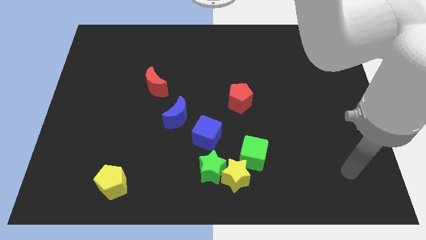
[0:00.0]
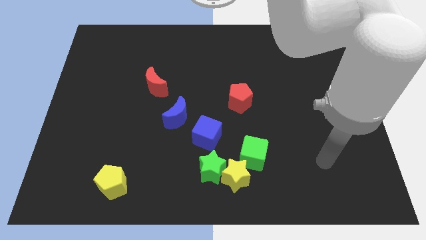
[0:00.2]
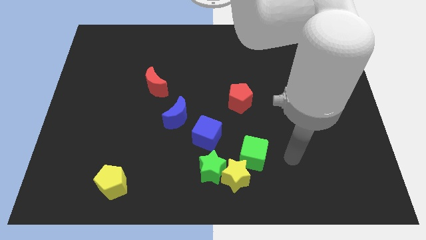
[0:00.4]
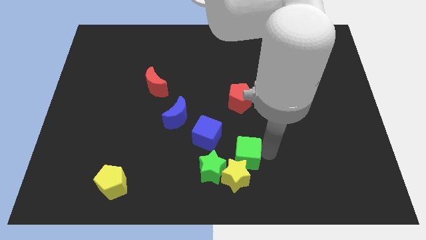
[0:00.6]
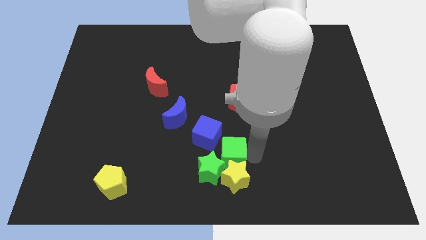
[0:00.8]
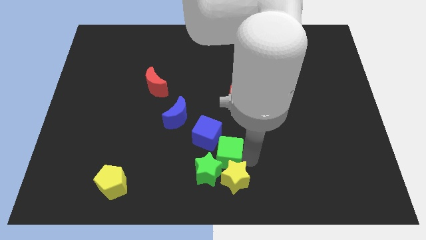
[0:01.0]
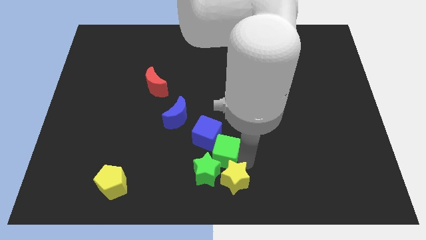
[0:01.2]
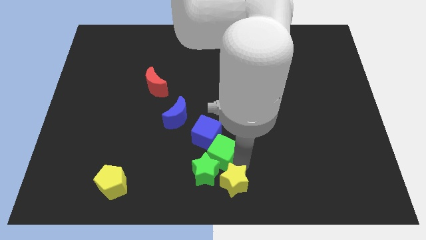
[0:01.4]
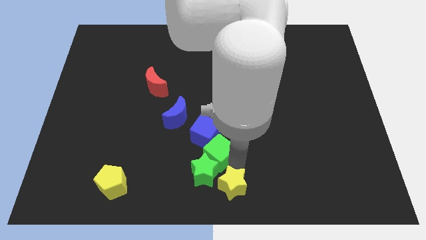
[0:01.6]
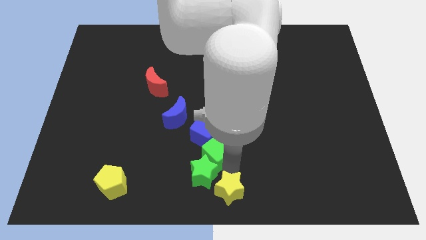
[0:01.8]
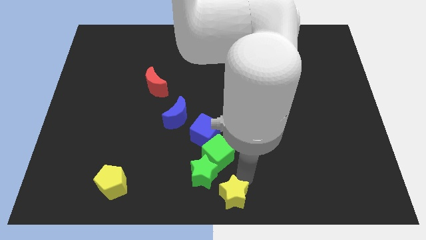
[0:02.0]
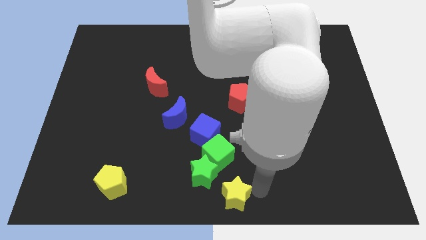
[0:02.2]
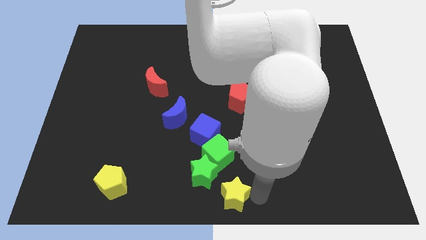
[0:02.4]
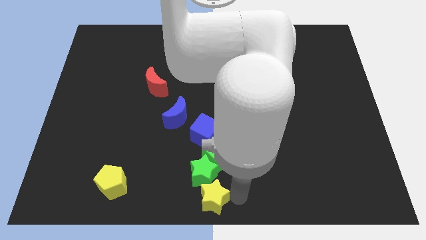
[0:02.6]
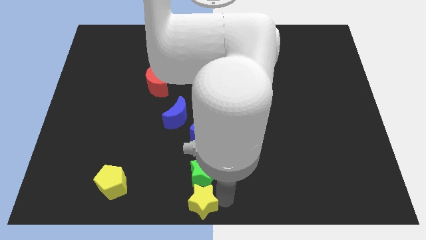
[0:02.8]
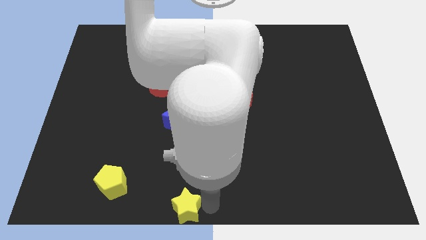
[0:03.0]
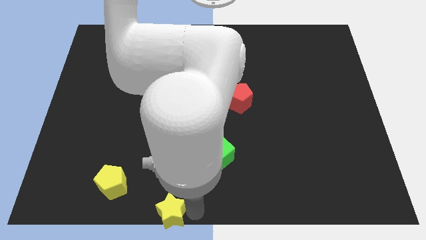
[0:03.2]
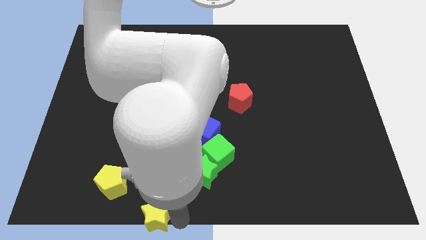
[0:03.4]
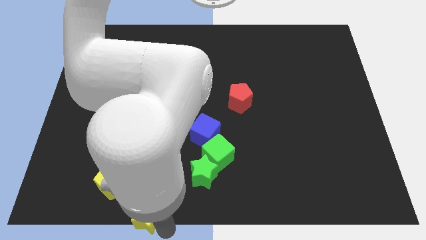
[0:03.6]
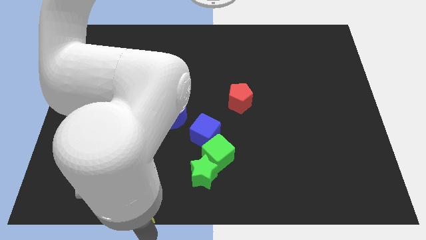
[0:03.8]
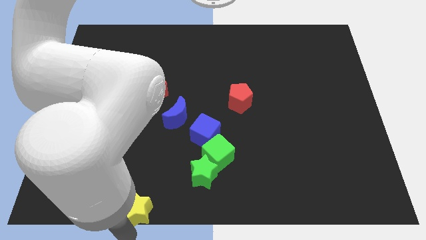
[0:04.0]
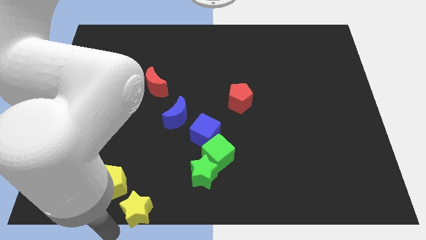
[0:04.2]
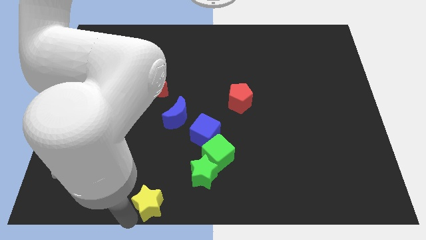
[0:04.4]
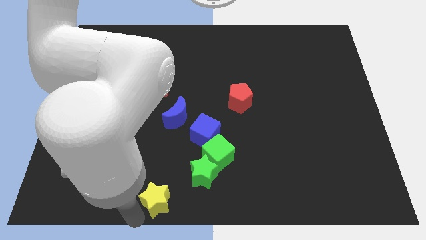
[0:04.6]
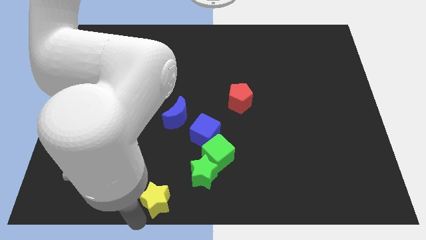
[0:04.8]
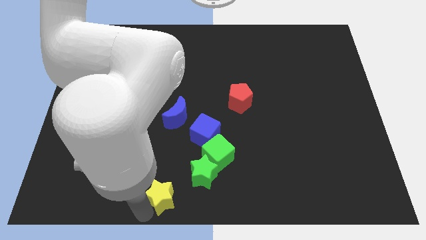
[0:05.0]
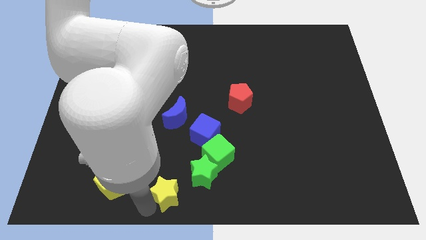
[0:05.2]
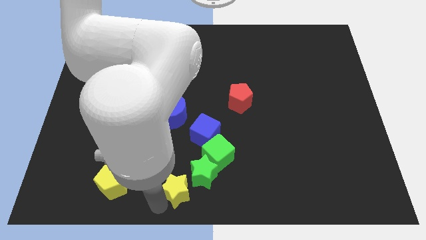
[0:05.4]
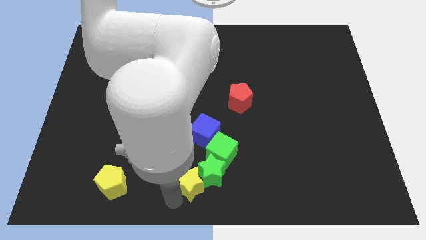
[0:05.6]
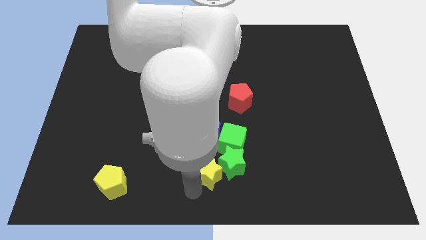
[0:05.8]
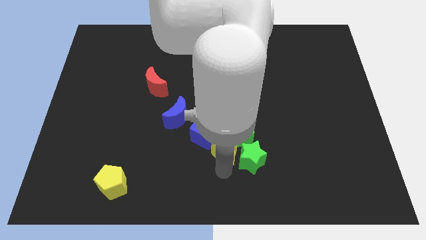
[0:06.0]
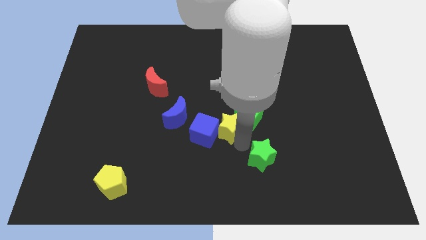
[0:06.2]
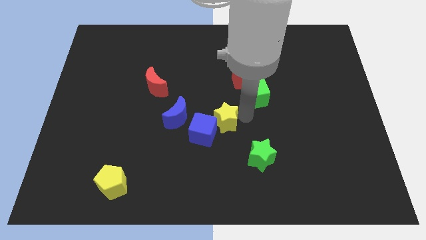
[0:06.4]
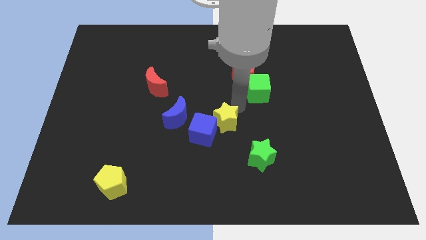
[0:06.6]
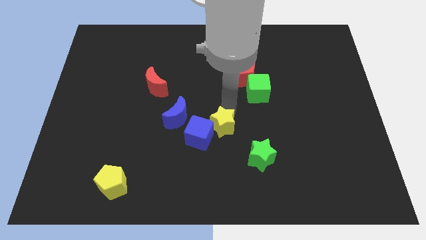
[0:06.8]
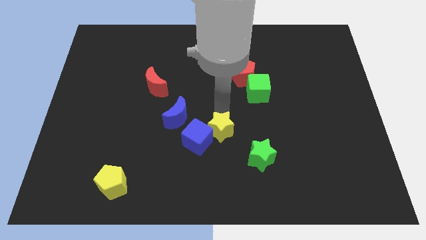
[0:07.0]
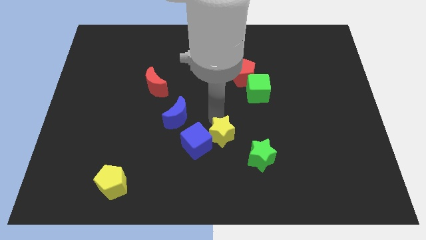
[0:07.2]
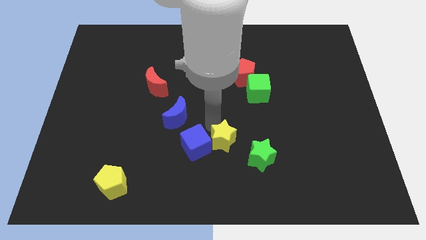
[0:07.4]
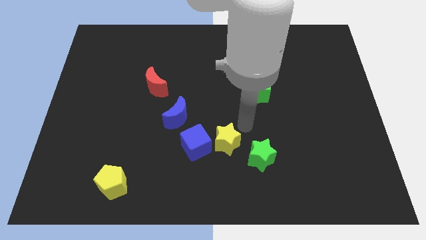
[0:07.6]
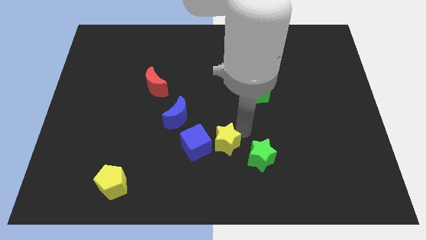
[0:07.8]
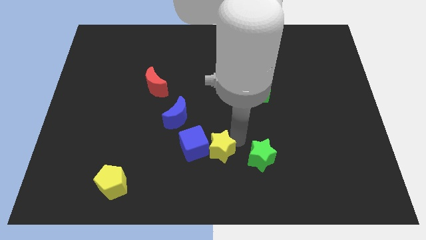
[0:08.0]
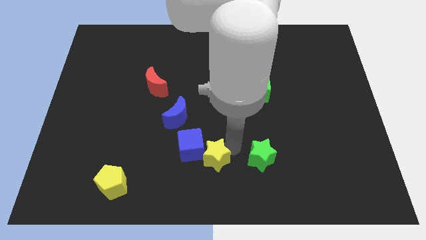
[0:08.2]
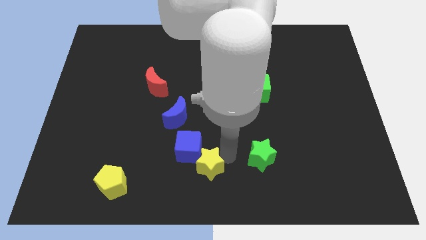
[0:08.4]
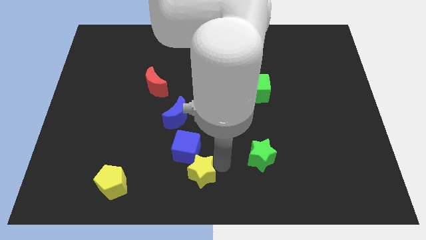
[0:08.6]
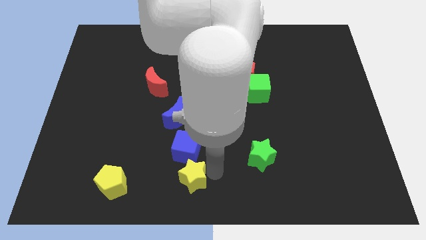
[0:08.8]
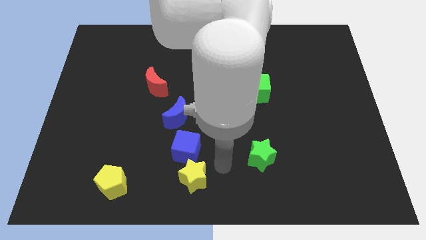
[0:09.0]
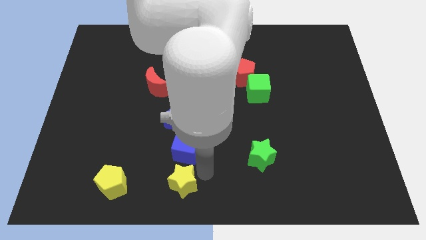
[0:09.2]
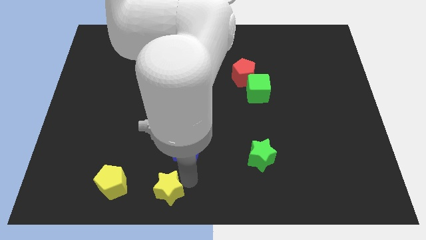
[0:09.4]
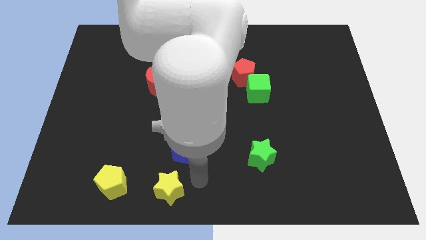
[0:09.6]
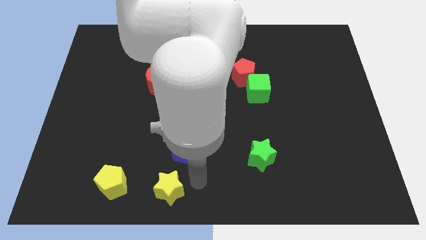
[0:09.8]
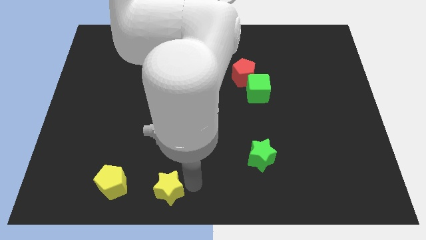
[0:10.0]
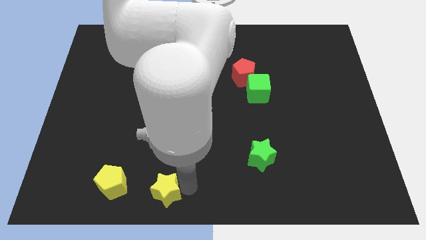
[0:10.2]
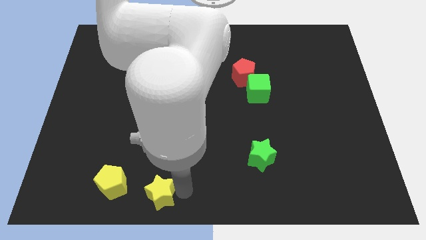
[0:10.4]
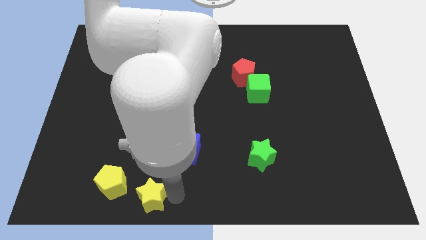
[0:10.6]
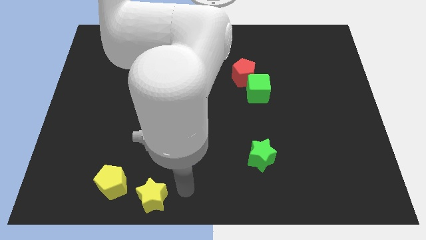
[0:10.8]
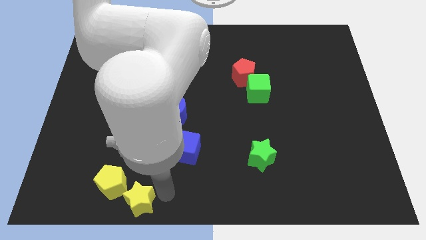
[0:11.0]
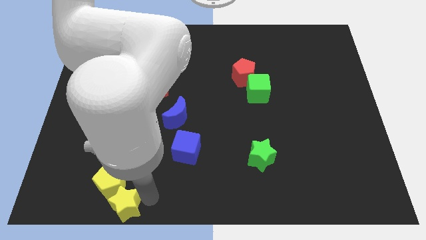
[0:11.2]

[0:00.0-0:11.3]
slide the yellow star left

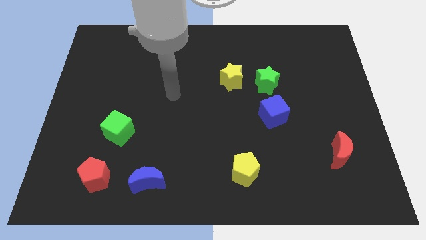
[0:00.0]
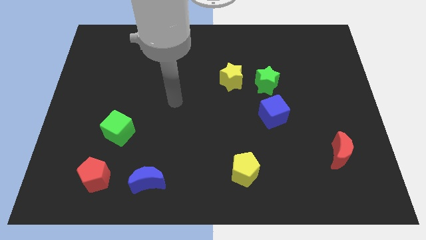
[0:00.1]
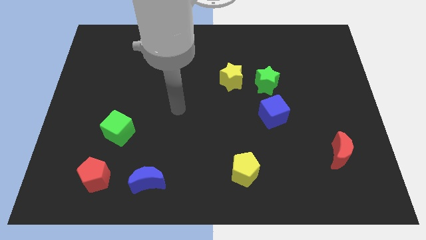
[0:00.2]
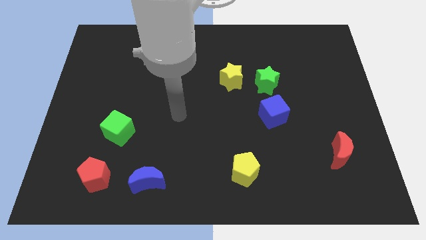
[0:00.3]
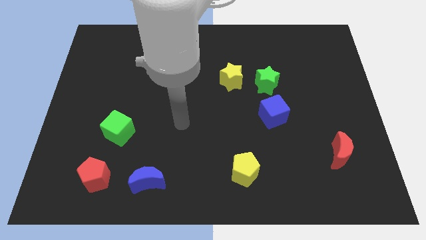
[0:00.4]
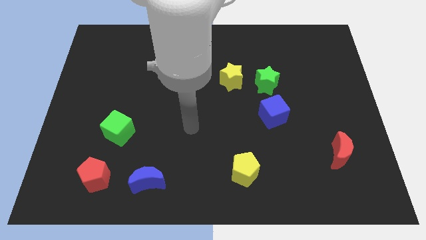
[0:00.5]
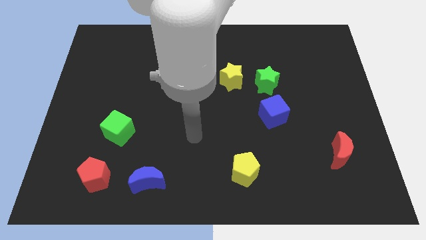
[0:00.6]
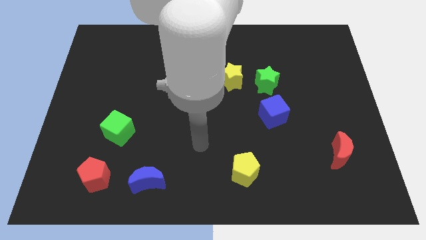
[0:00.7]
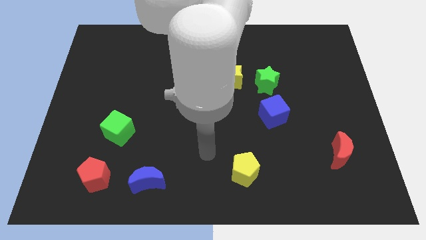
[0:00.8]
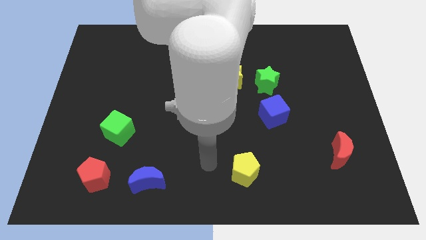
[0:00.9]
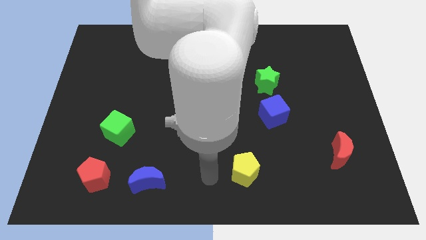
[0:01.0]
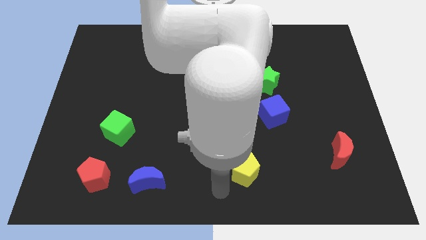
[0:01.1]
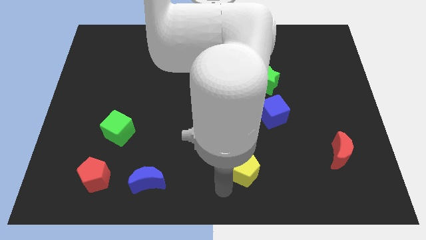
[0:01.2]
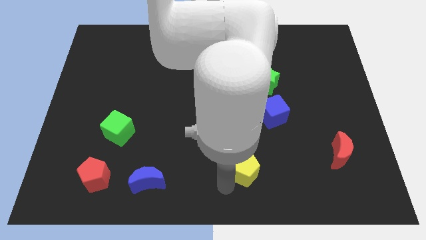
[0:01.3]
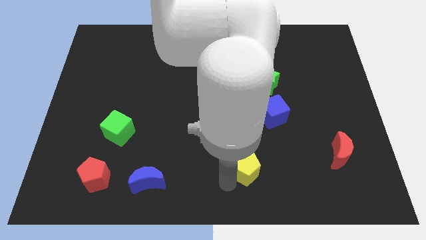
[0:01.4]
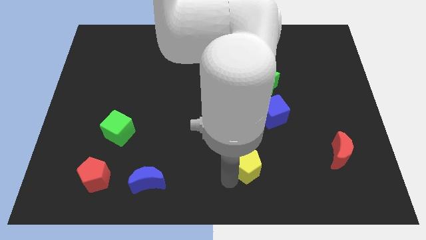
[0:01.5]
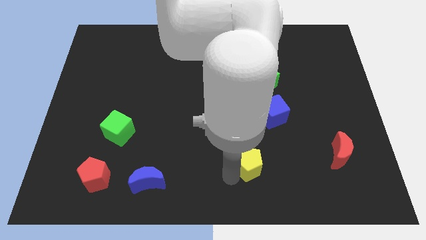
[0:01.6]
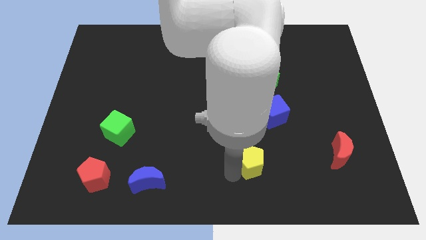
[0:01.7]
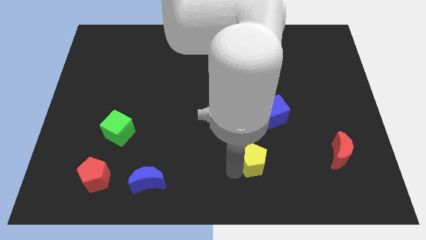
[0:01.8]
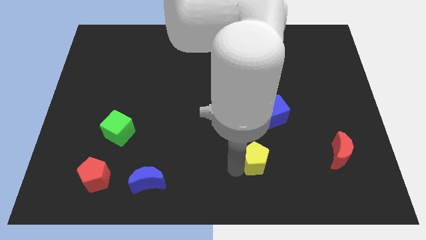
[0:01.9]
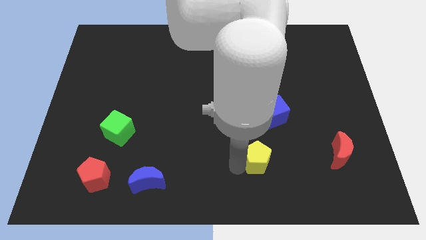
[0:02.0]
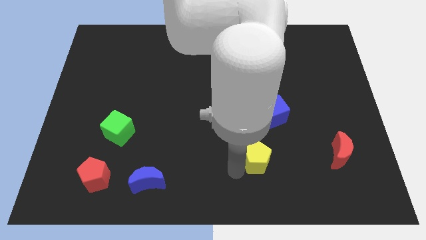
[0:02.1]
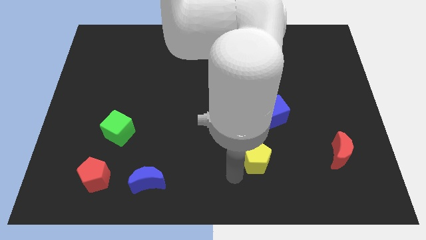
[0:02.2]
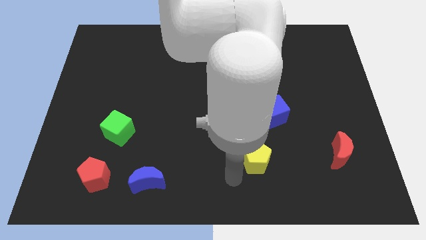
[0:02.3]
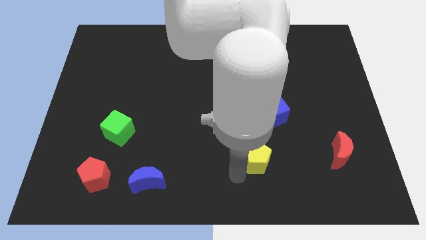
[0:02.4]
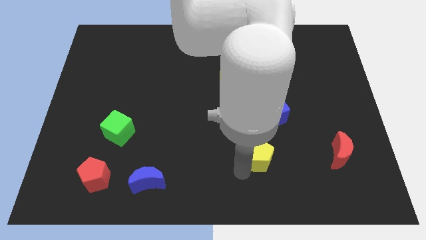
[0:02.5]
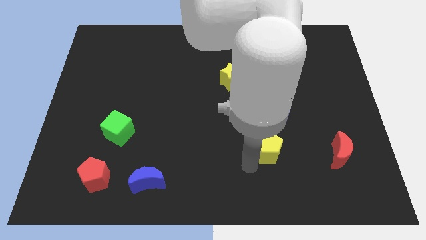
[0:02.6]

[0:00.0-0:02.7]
slightly move the yellow pentagon upwards and then to the right
